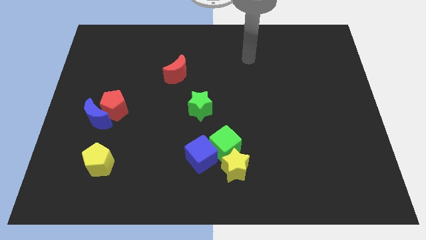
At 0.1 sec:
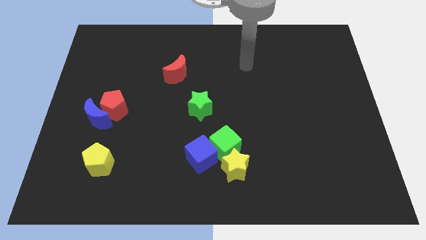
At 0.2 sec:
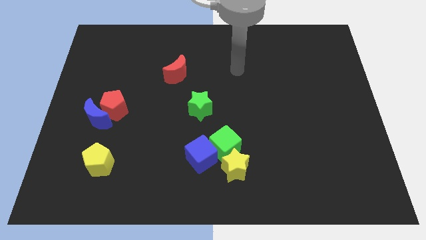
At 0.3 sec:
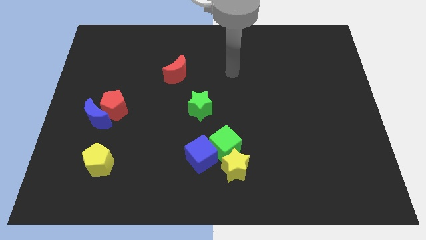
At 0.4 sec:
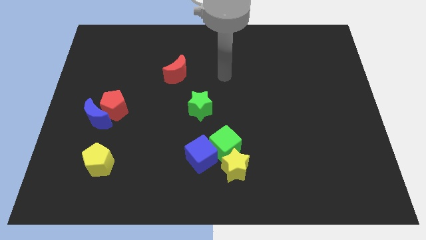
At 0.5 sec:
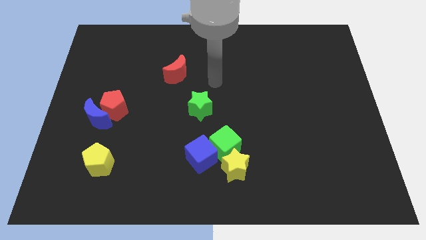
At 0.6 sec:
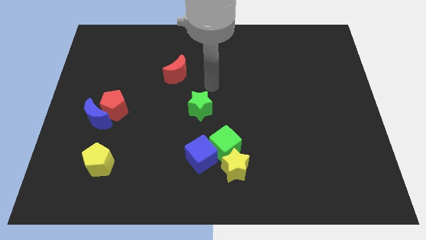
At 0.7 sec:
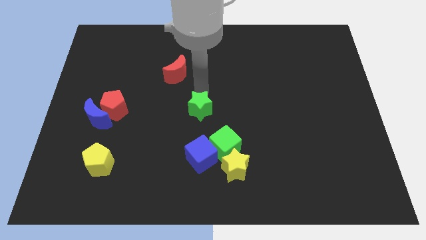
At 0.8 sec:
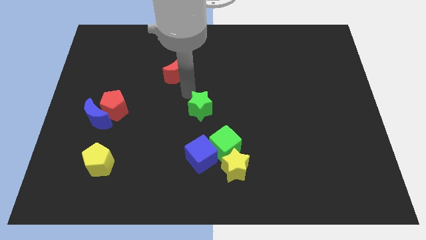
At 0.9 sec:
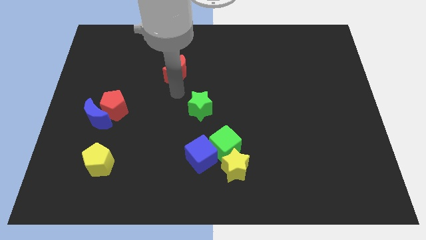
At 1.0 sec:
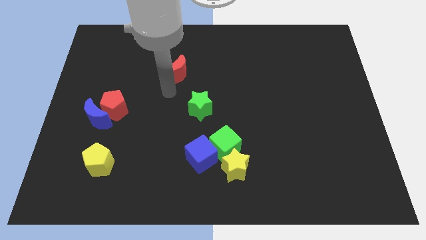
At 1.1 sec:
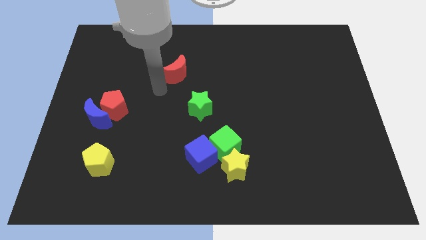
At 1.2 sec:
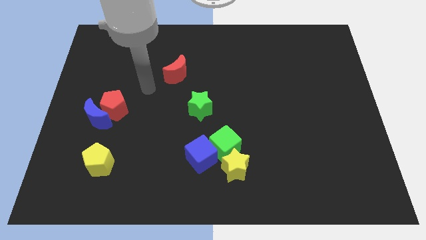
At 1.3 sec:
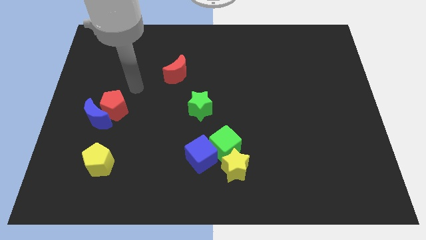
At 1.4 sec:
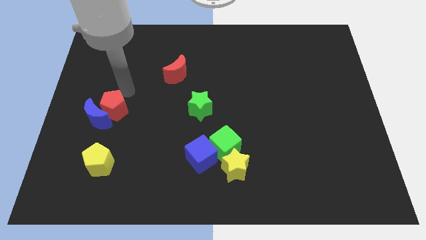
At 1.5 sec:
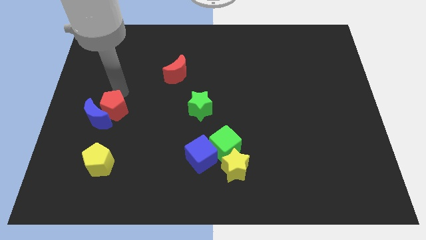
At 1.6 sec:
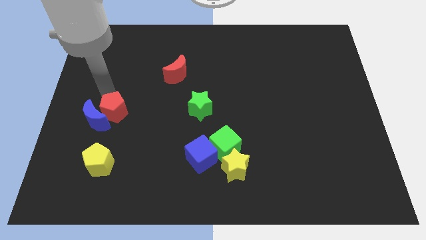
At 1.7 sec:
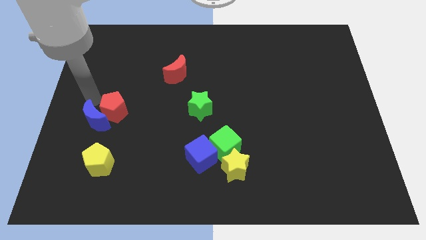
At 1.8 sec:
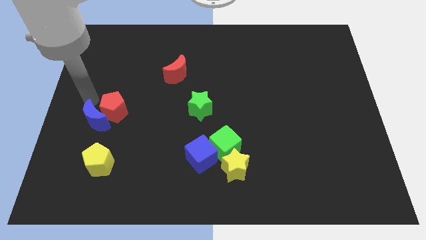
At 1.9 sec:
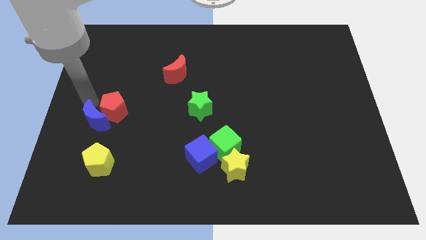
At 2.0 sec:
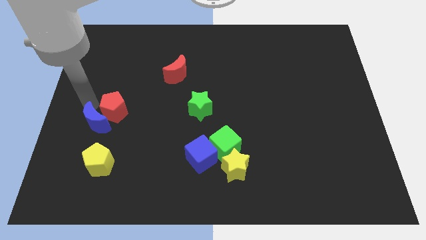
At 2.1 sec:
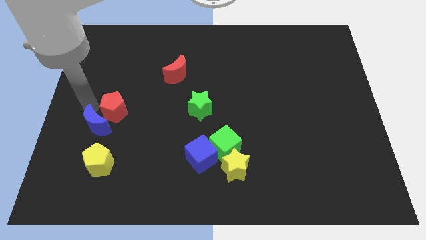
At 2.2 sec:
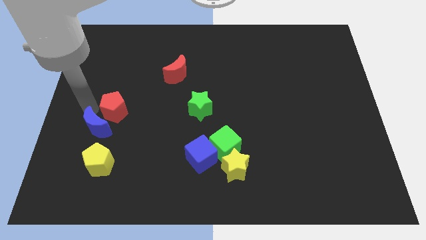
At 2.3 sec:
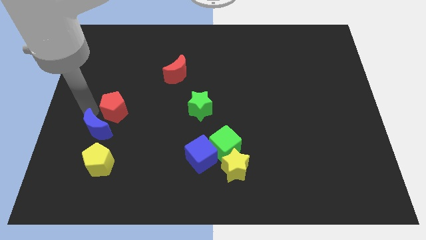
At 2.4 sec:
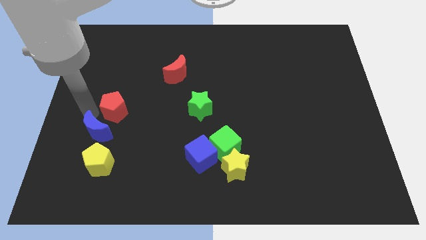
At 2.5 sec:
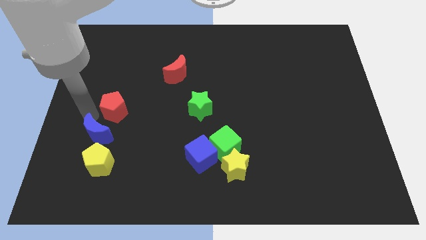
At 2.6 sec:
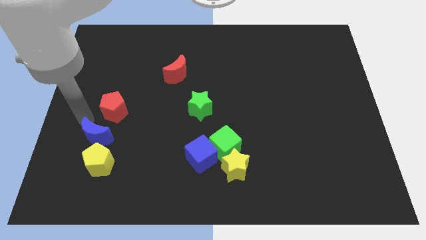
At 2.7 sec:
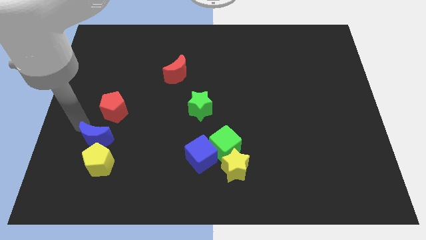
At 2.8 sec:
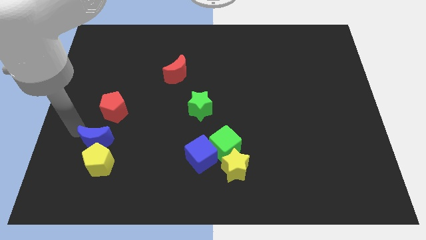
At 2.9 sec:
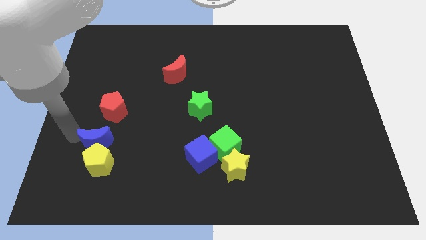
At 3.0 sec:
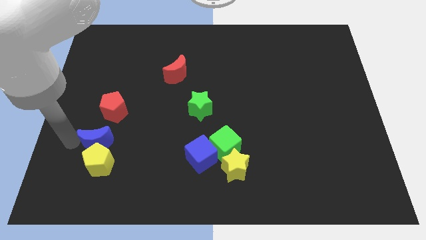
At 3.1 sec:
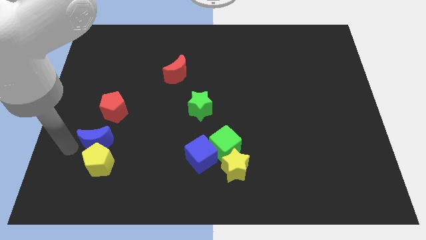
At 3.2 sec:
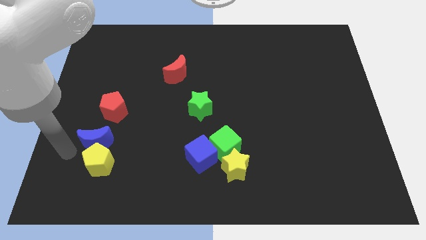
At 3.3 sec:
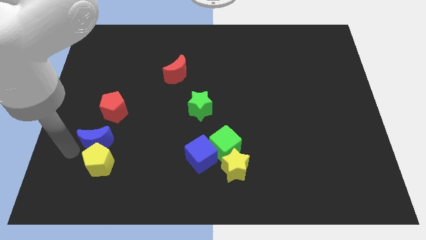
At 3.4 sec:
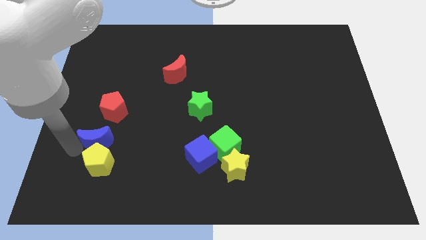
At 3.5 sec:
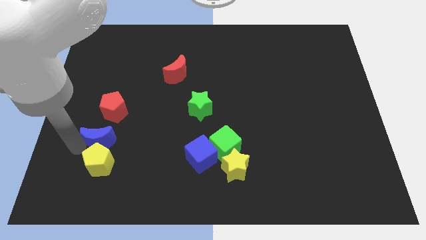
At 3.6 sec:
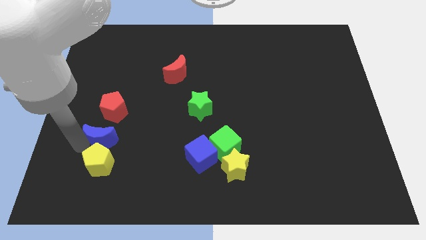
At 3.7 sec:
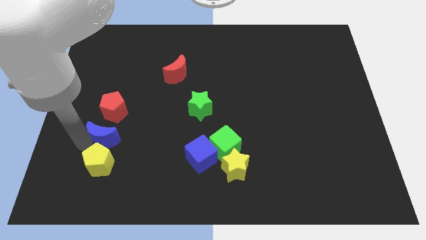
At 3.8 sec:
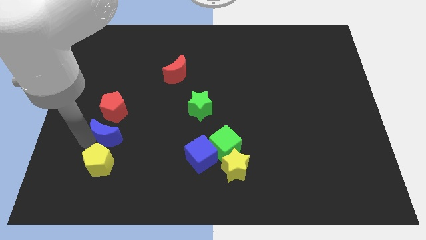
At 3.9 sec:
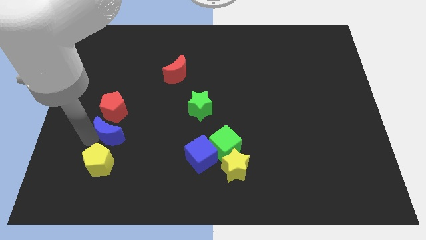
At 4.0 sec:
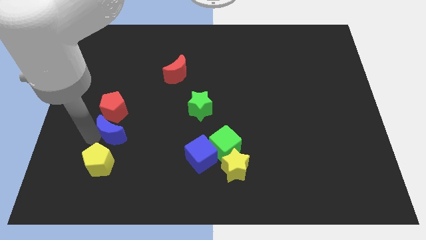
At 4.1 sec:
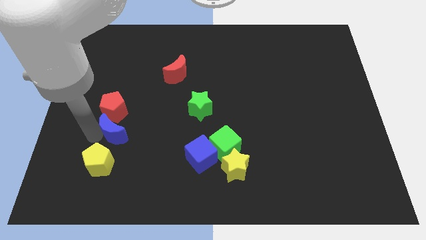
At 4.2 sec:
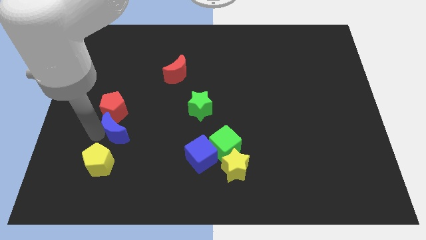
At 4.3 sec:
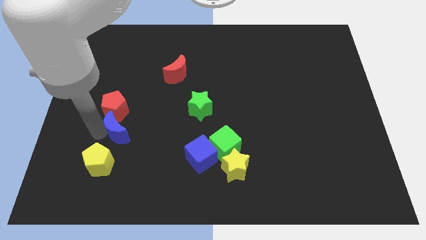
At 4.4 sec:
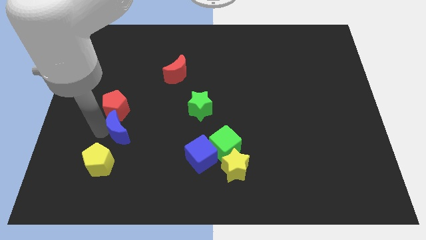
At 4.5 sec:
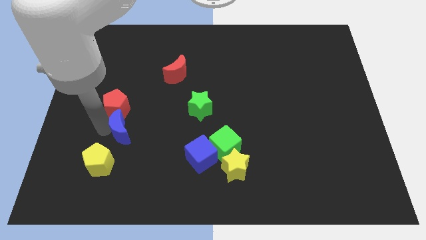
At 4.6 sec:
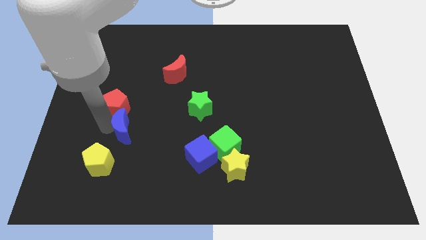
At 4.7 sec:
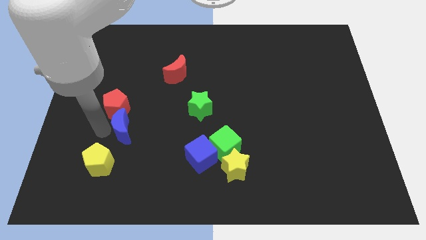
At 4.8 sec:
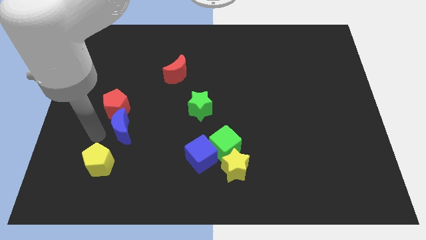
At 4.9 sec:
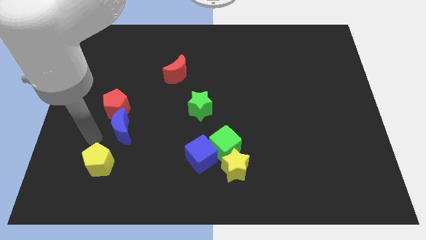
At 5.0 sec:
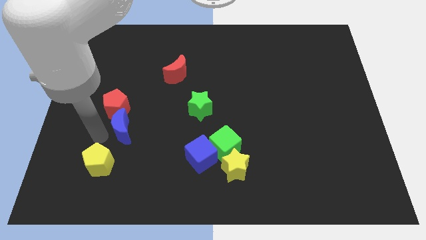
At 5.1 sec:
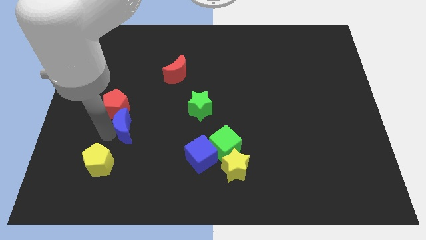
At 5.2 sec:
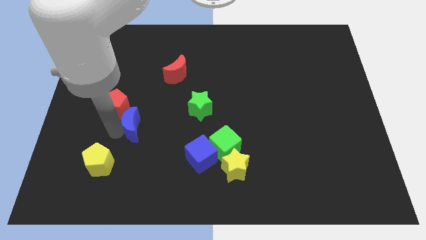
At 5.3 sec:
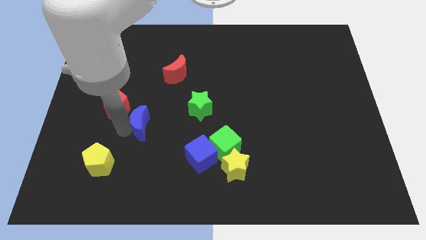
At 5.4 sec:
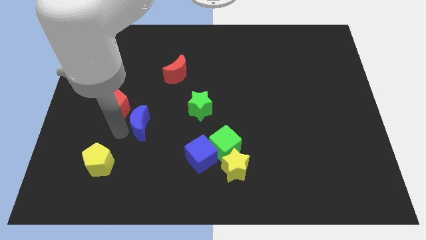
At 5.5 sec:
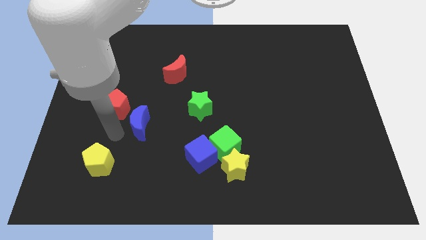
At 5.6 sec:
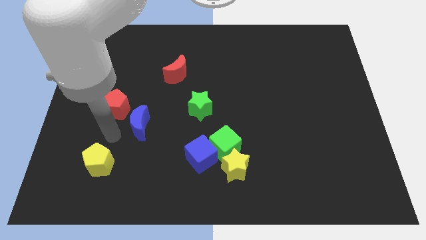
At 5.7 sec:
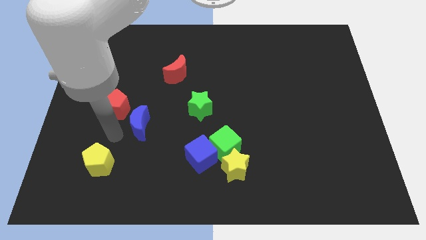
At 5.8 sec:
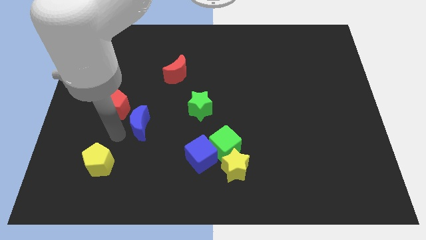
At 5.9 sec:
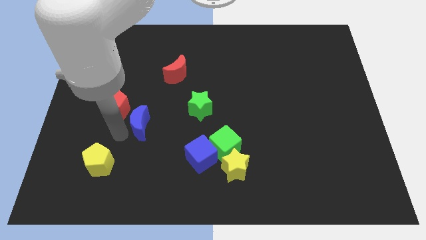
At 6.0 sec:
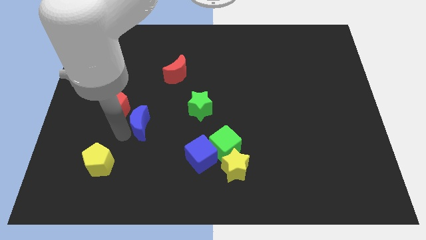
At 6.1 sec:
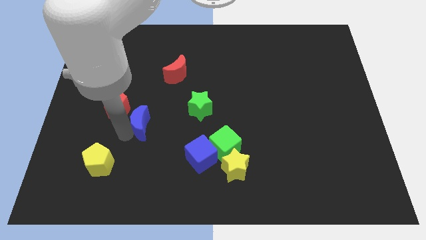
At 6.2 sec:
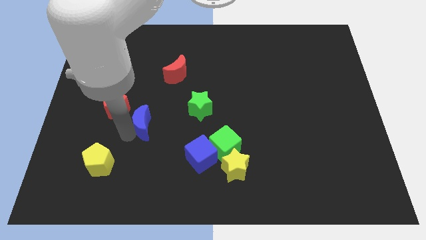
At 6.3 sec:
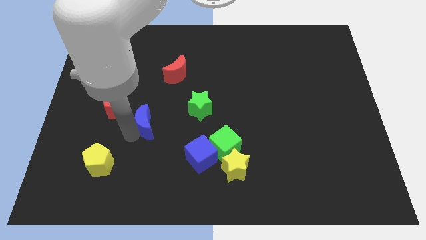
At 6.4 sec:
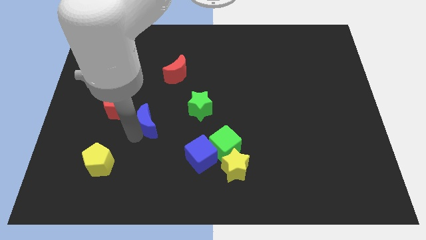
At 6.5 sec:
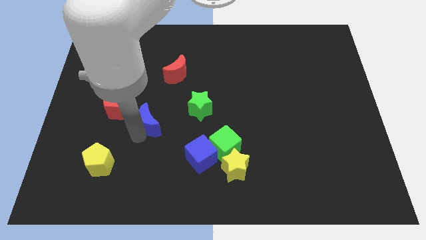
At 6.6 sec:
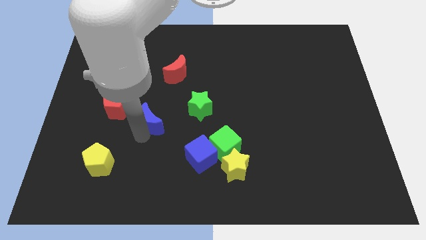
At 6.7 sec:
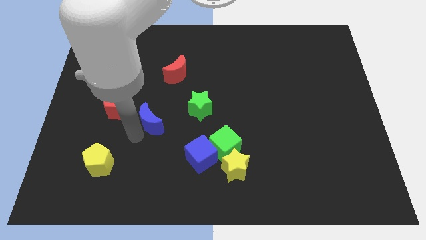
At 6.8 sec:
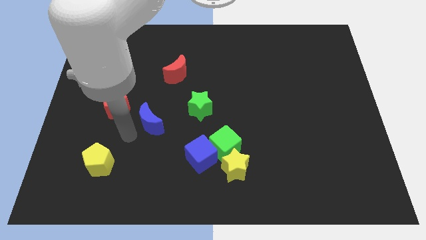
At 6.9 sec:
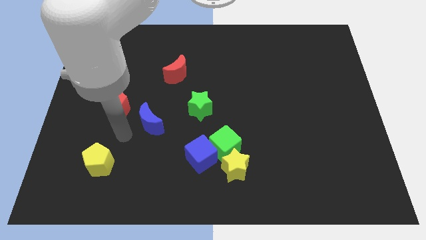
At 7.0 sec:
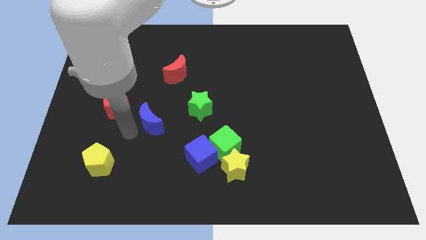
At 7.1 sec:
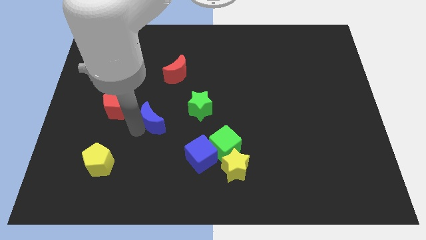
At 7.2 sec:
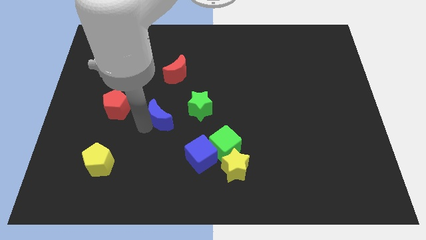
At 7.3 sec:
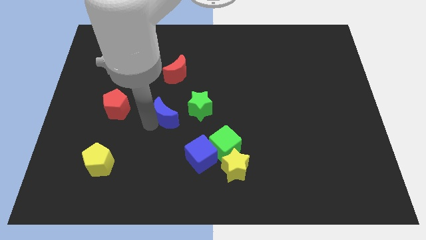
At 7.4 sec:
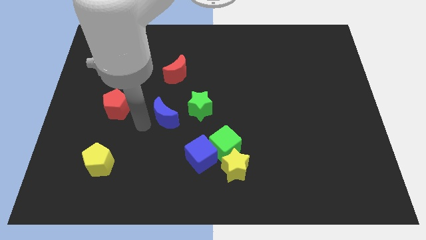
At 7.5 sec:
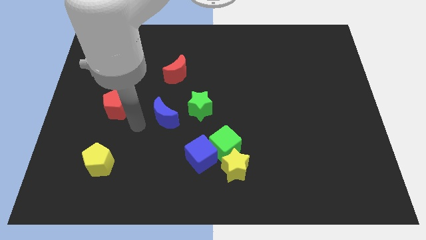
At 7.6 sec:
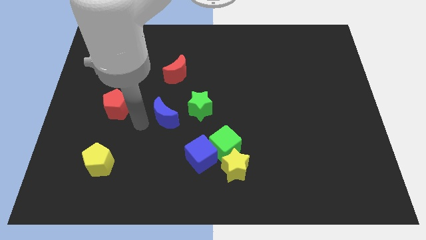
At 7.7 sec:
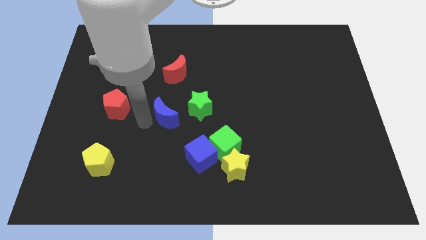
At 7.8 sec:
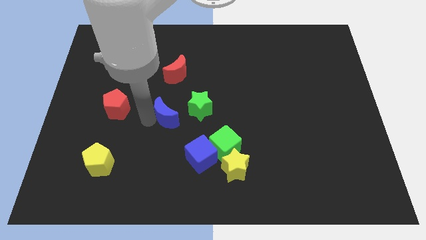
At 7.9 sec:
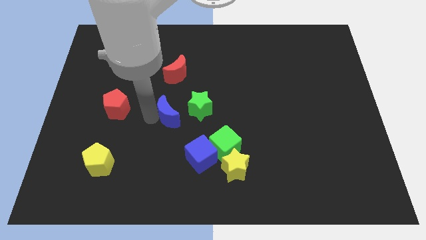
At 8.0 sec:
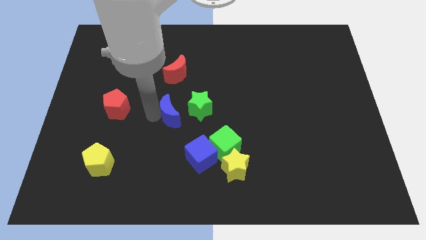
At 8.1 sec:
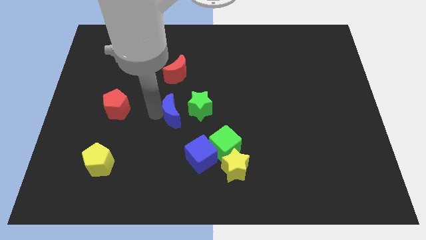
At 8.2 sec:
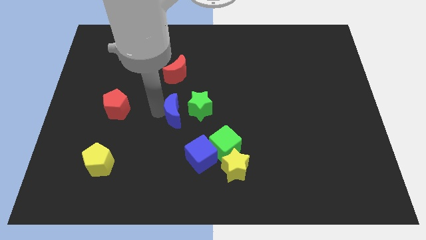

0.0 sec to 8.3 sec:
push the blue moon next to the green star
